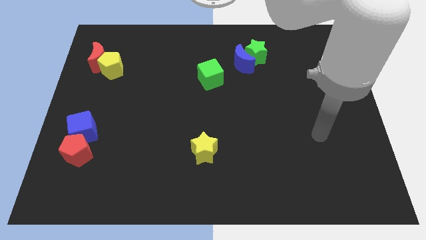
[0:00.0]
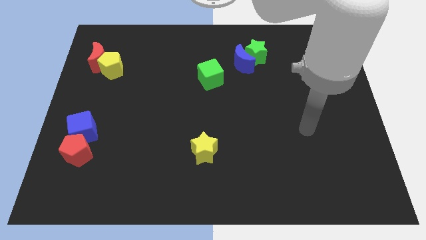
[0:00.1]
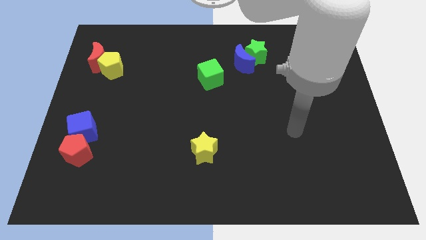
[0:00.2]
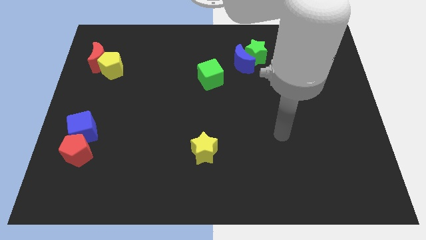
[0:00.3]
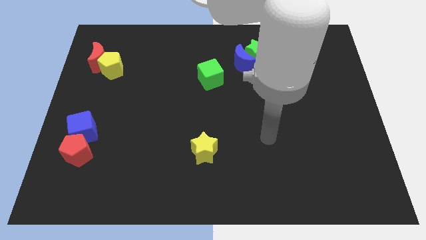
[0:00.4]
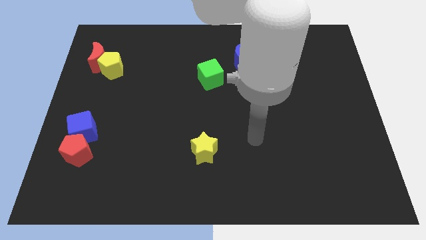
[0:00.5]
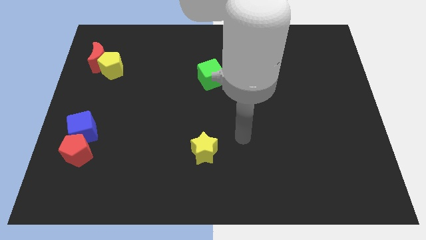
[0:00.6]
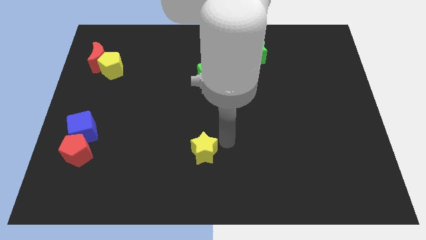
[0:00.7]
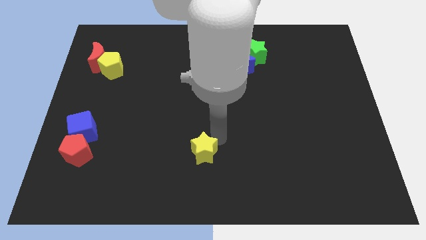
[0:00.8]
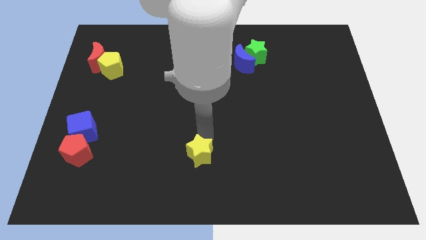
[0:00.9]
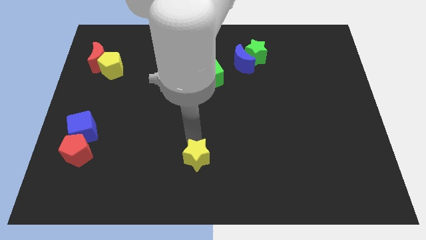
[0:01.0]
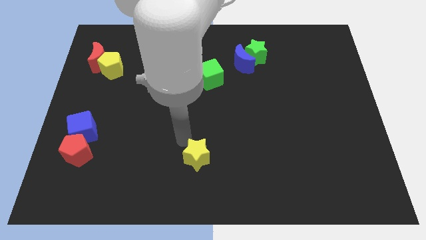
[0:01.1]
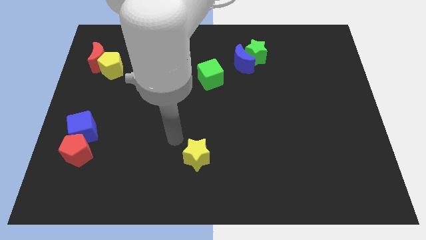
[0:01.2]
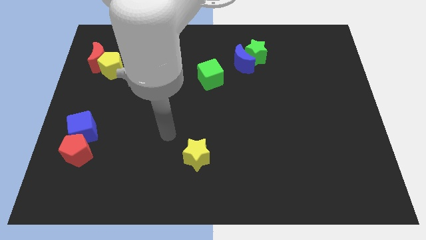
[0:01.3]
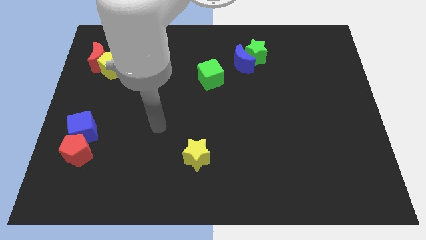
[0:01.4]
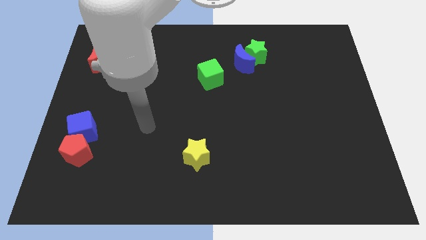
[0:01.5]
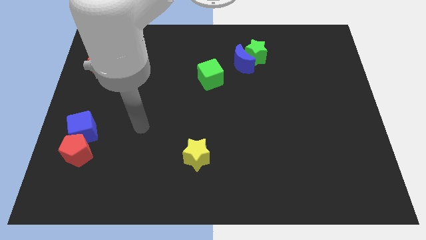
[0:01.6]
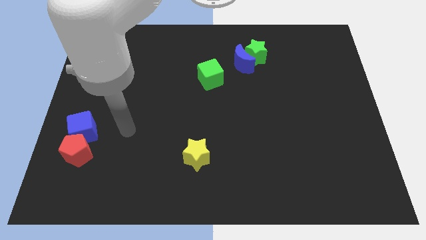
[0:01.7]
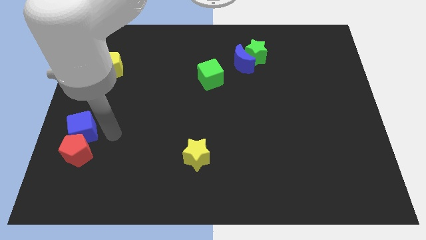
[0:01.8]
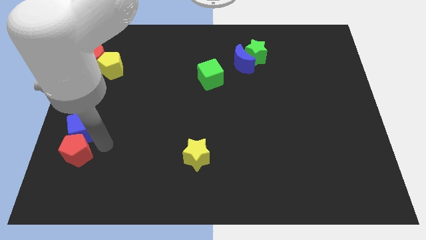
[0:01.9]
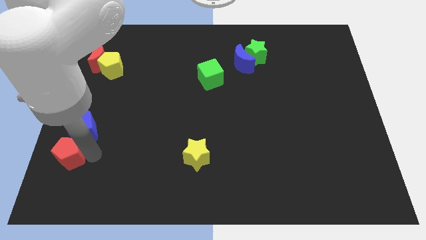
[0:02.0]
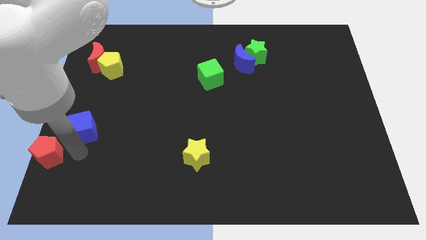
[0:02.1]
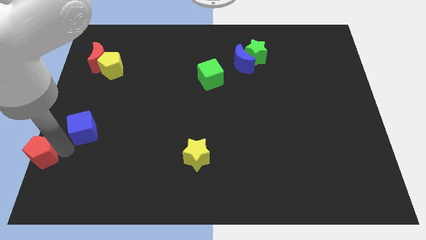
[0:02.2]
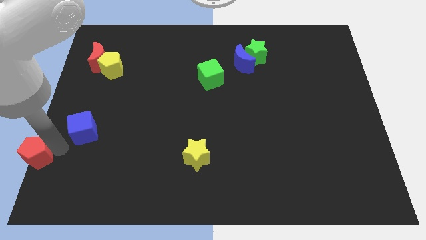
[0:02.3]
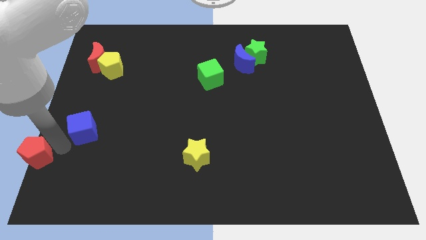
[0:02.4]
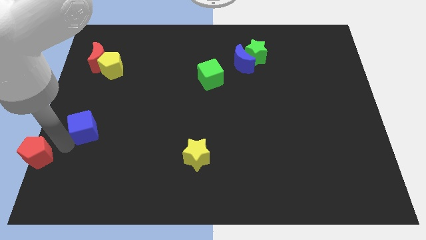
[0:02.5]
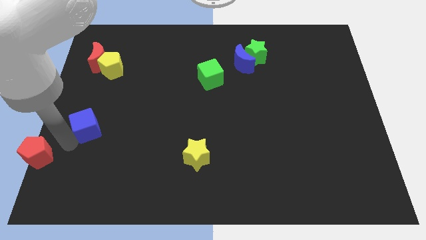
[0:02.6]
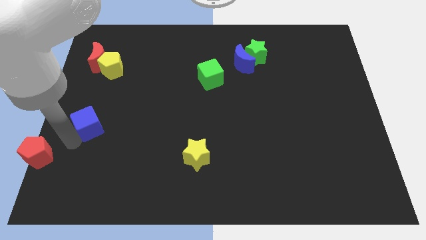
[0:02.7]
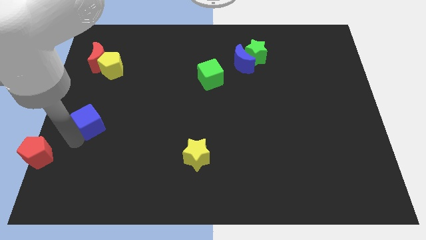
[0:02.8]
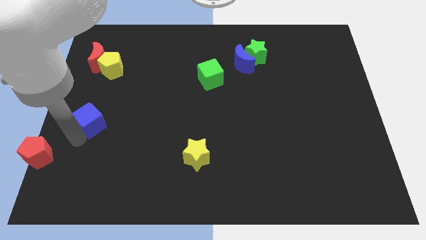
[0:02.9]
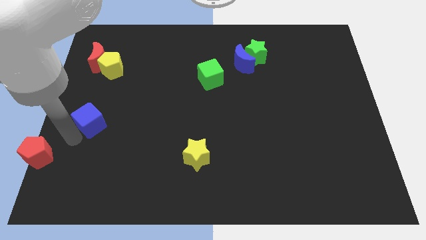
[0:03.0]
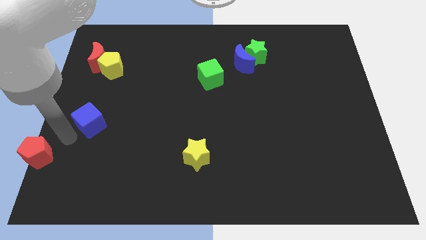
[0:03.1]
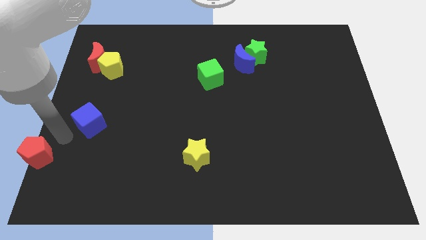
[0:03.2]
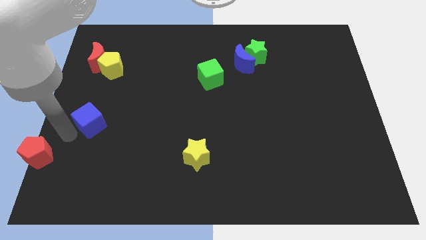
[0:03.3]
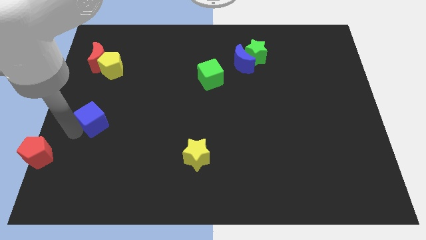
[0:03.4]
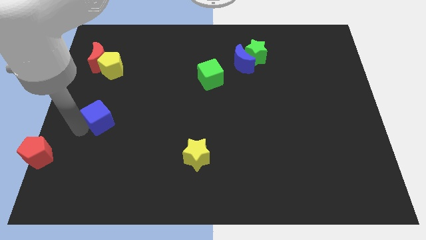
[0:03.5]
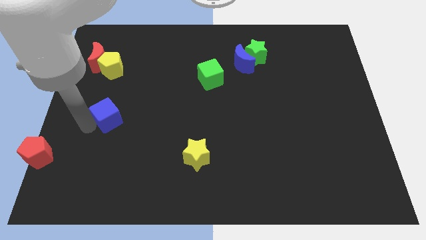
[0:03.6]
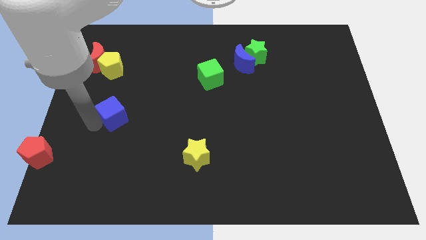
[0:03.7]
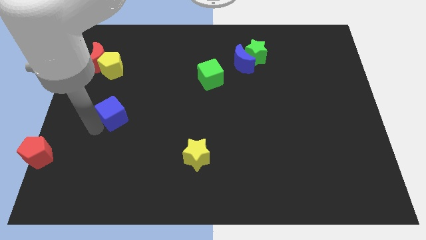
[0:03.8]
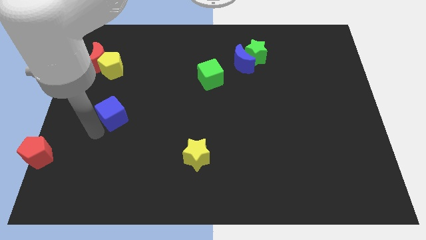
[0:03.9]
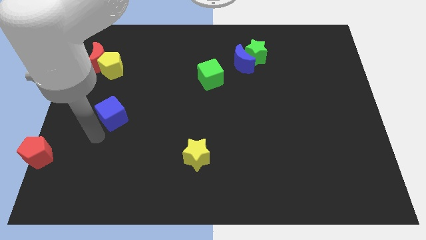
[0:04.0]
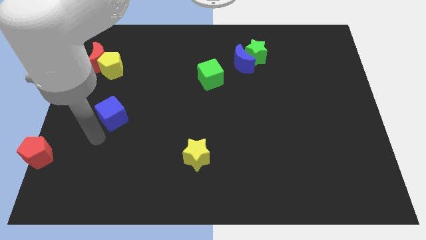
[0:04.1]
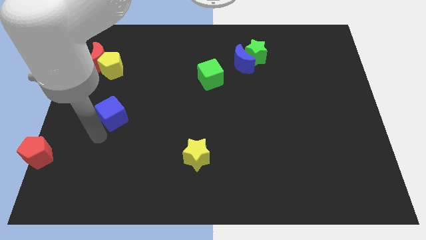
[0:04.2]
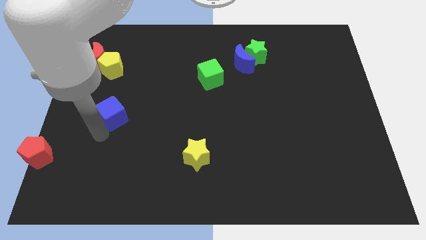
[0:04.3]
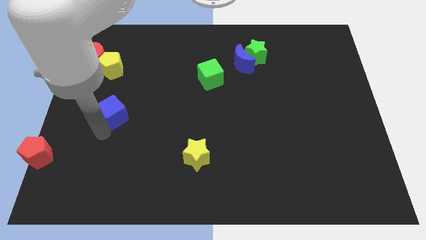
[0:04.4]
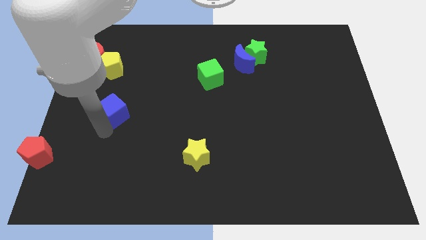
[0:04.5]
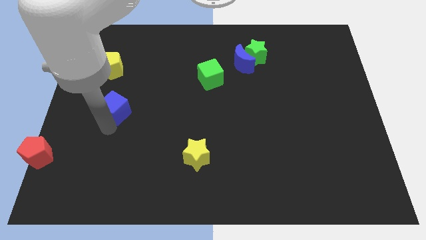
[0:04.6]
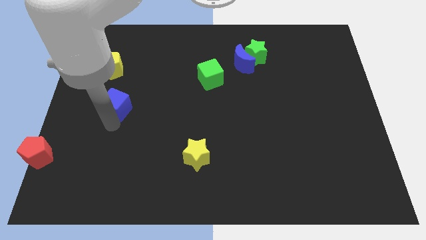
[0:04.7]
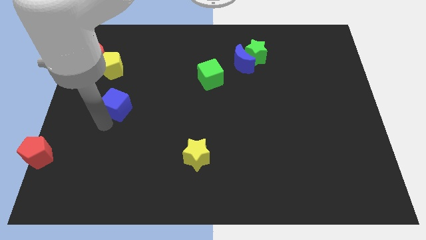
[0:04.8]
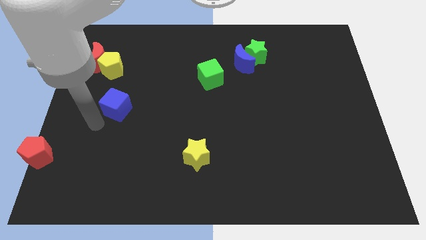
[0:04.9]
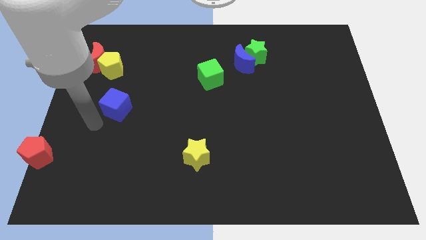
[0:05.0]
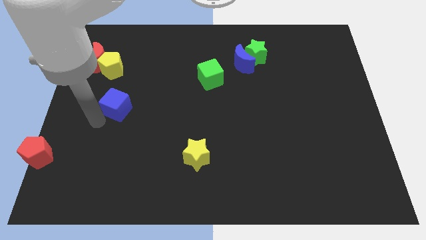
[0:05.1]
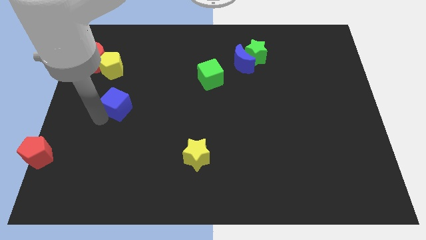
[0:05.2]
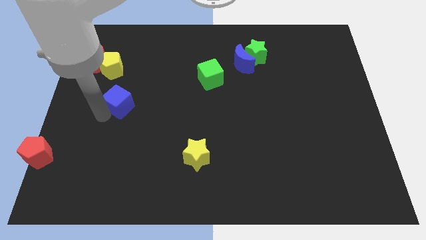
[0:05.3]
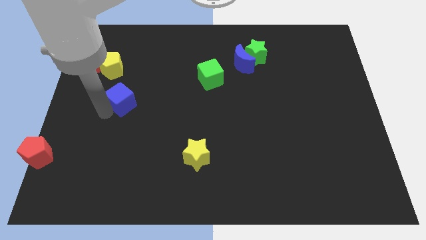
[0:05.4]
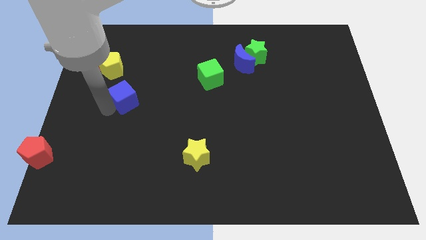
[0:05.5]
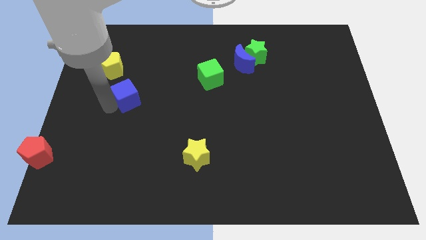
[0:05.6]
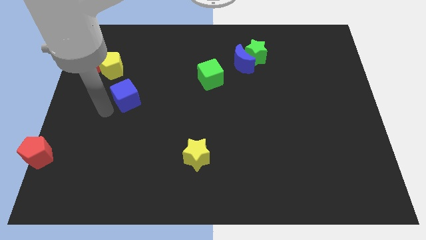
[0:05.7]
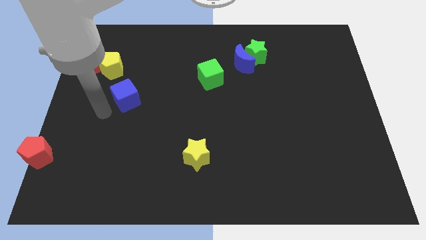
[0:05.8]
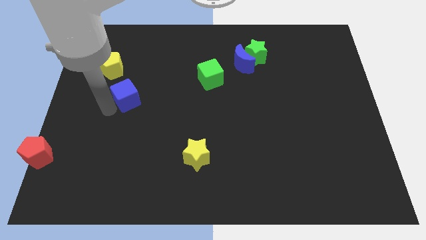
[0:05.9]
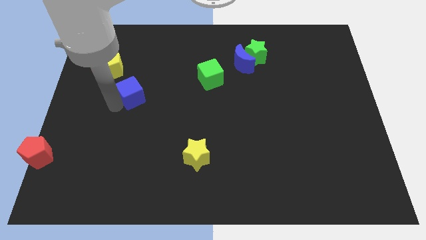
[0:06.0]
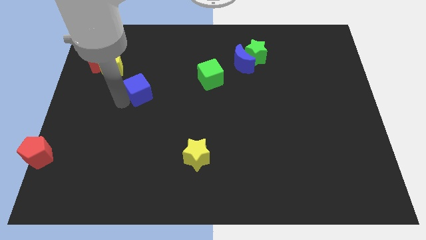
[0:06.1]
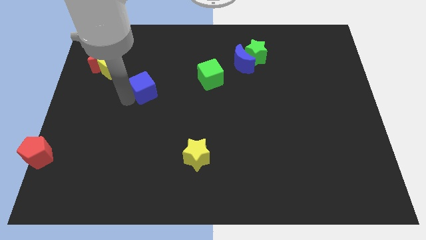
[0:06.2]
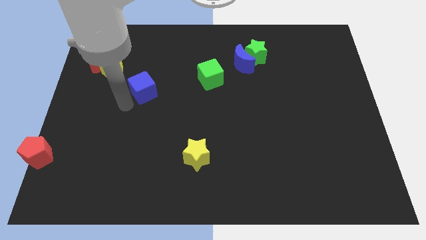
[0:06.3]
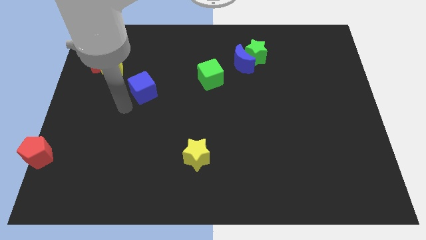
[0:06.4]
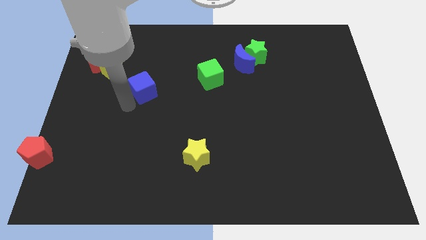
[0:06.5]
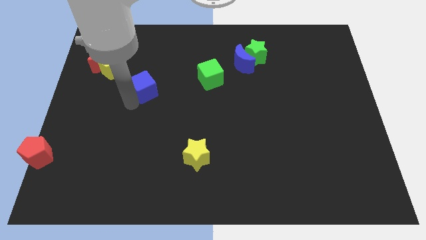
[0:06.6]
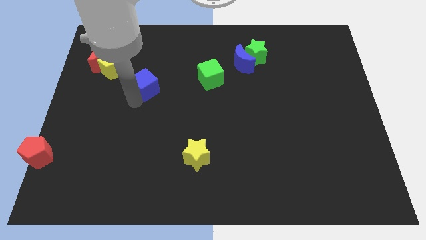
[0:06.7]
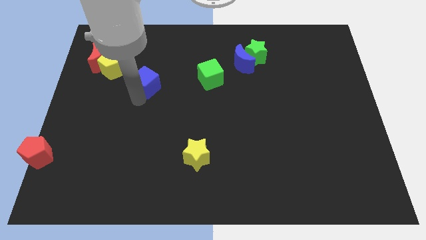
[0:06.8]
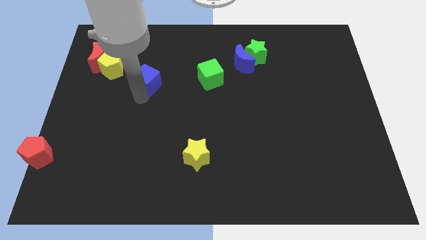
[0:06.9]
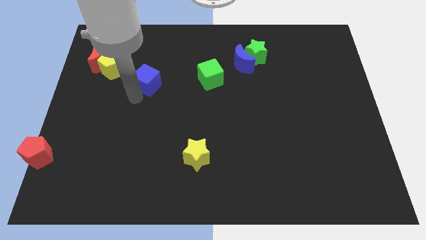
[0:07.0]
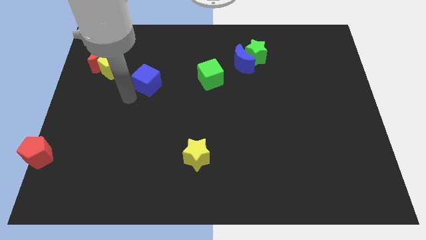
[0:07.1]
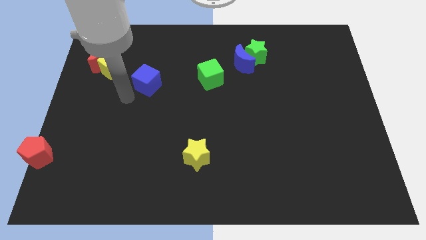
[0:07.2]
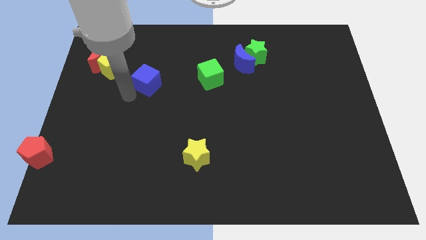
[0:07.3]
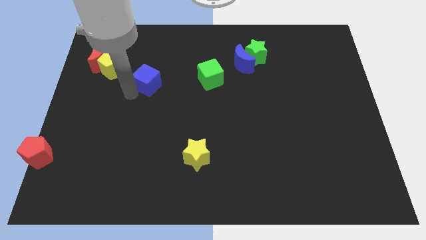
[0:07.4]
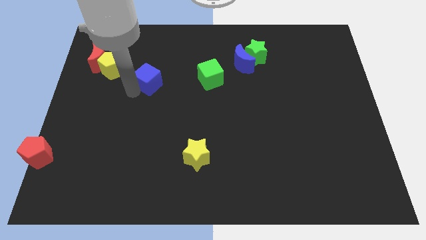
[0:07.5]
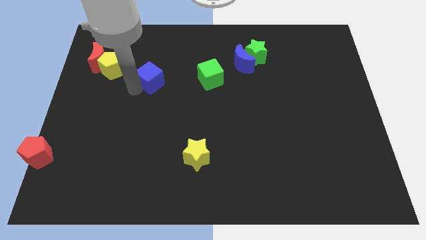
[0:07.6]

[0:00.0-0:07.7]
slide the blue cube upwards and to the right

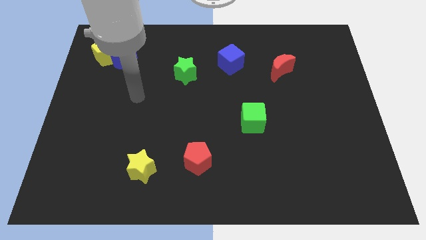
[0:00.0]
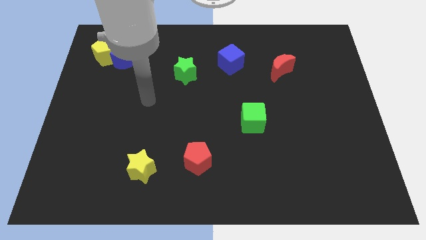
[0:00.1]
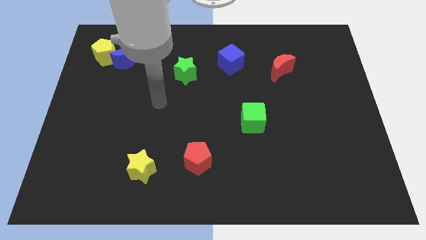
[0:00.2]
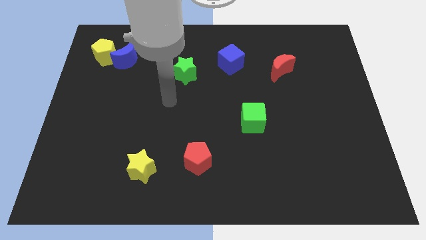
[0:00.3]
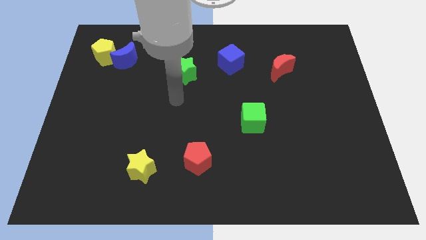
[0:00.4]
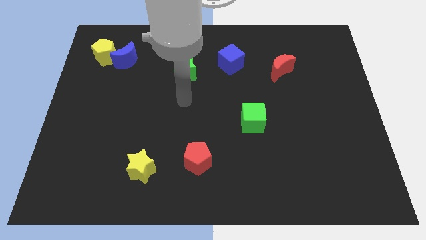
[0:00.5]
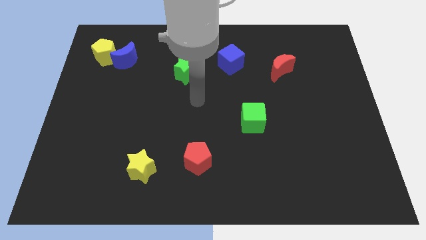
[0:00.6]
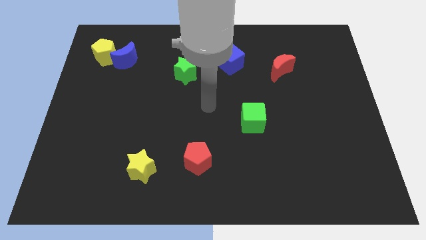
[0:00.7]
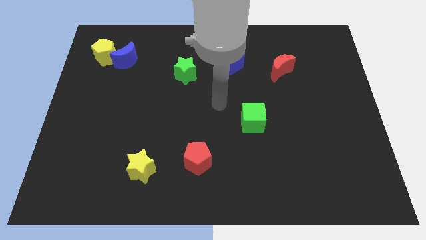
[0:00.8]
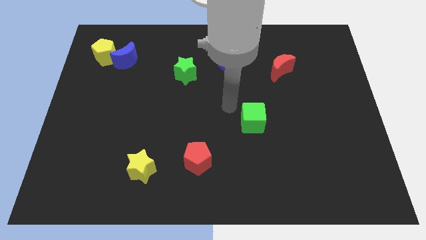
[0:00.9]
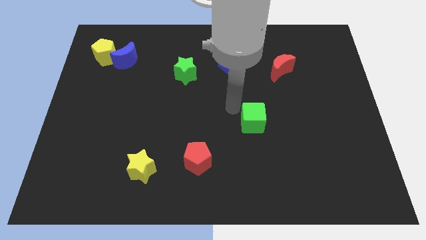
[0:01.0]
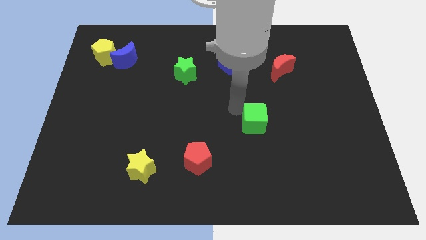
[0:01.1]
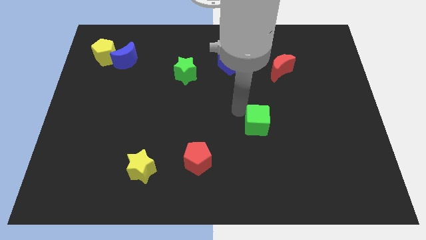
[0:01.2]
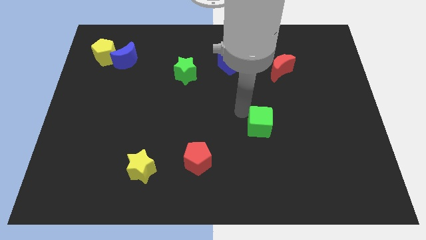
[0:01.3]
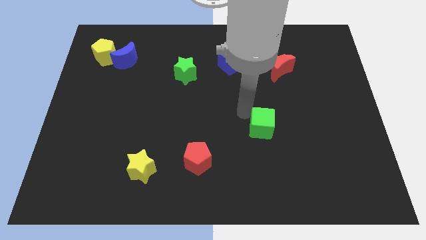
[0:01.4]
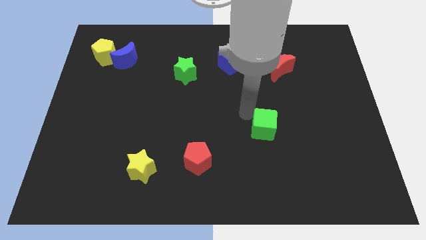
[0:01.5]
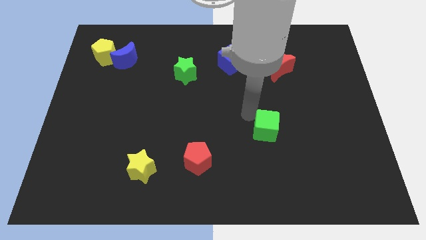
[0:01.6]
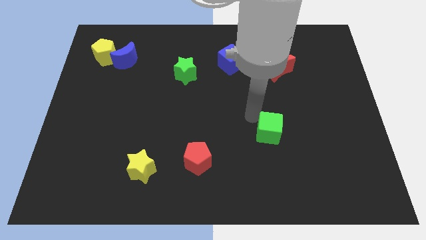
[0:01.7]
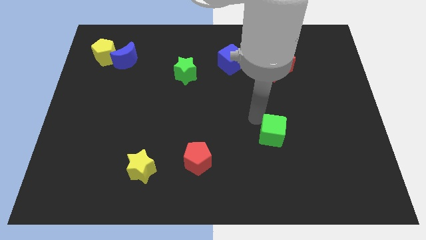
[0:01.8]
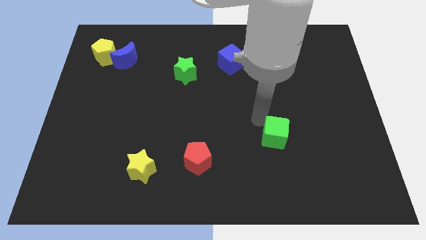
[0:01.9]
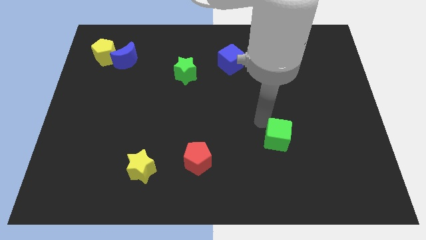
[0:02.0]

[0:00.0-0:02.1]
push the green cube somewhat down and right
